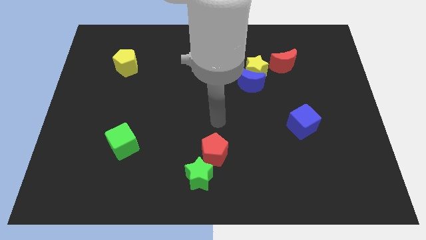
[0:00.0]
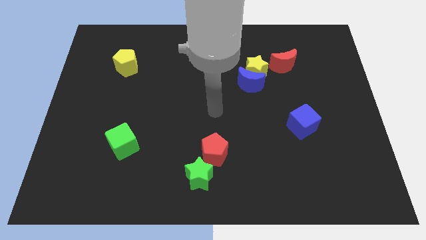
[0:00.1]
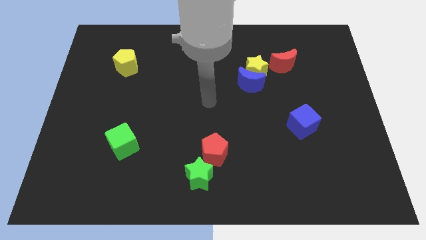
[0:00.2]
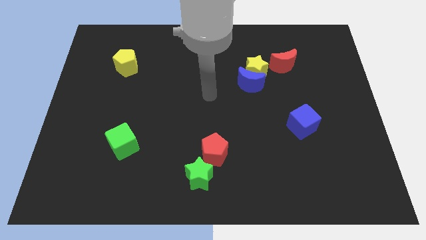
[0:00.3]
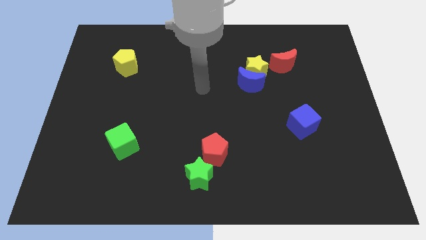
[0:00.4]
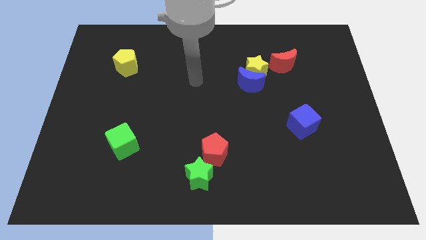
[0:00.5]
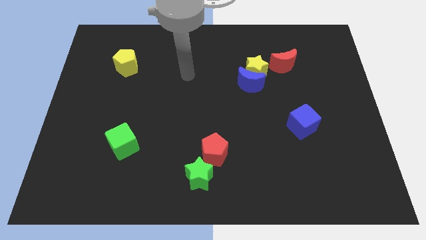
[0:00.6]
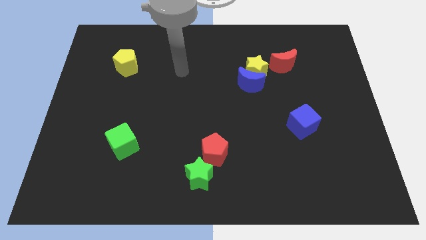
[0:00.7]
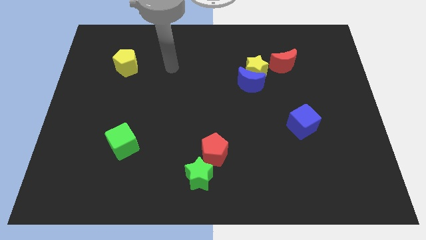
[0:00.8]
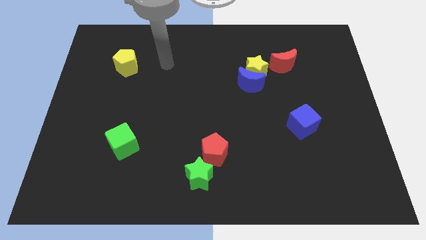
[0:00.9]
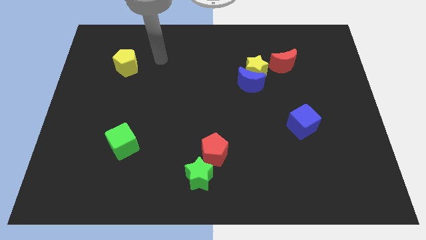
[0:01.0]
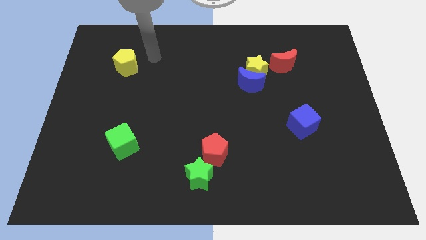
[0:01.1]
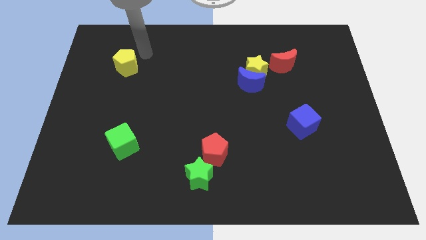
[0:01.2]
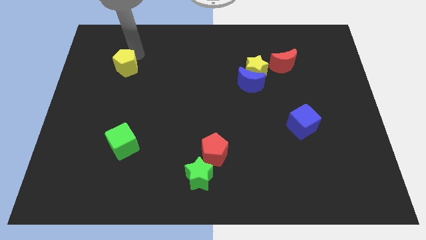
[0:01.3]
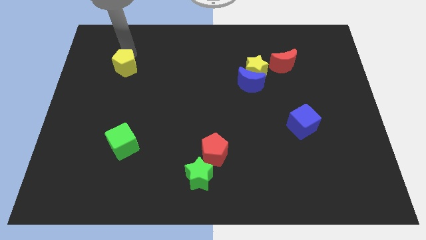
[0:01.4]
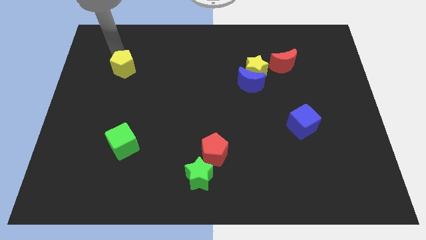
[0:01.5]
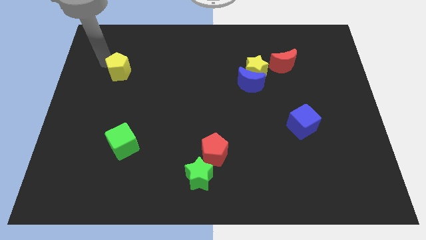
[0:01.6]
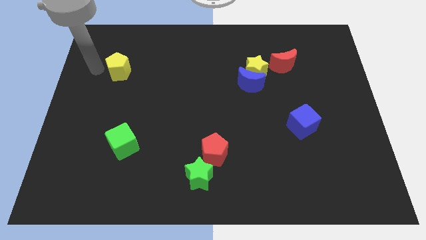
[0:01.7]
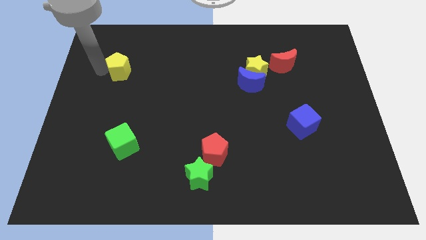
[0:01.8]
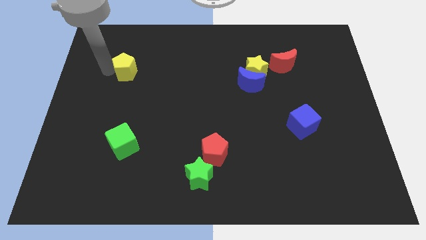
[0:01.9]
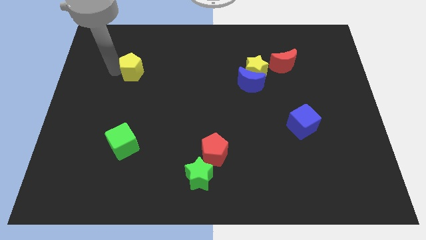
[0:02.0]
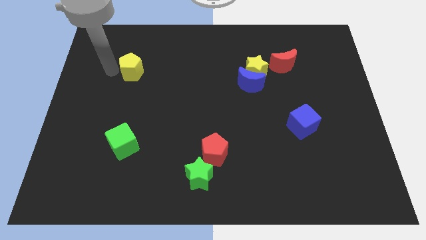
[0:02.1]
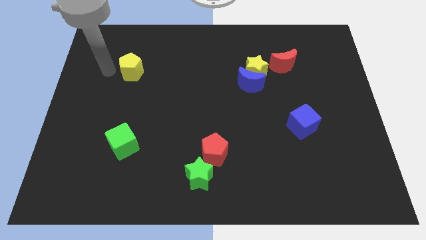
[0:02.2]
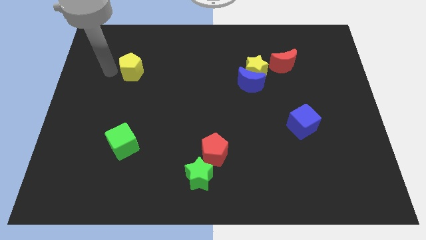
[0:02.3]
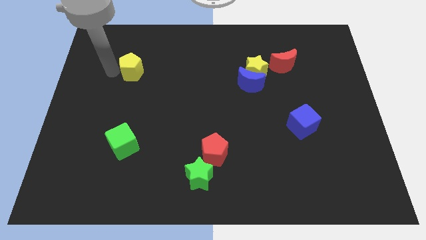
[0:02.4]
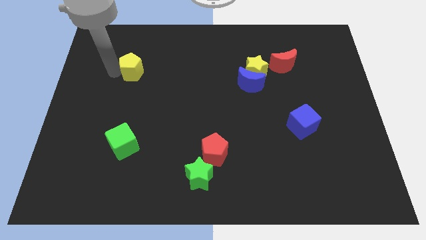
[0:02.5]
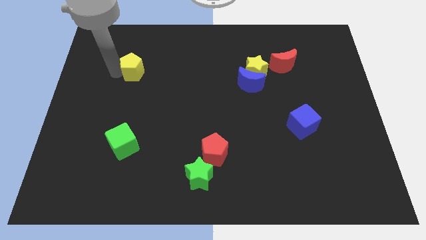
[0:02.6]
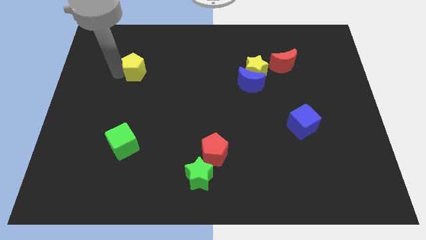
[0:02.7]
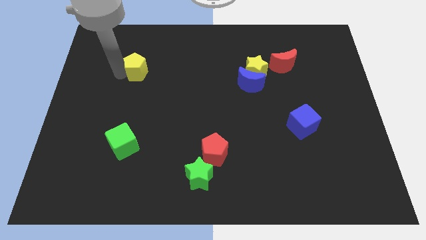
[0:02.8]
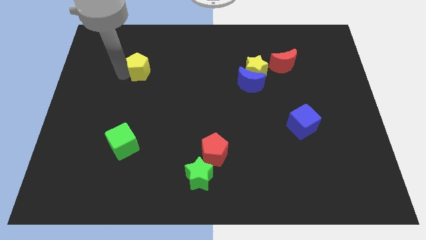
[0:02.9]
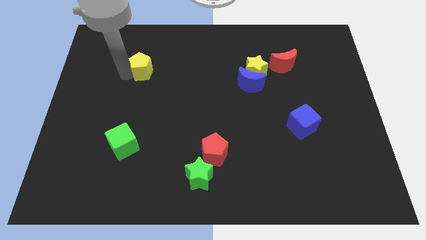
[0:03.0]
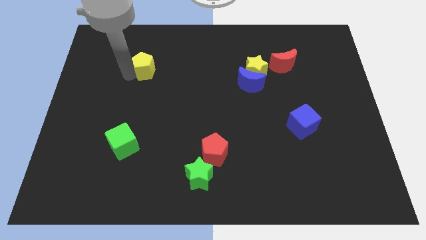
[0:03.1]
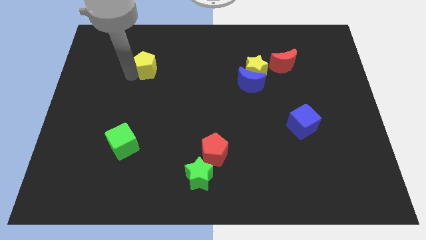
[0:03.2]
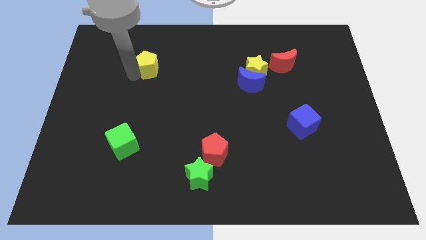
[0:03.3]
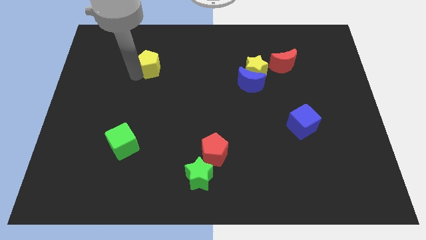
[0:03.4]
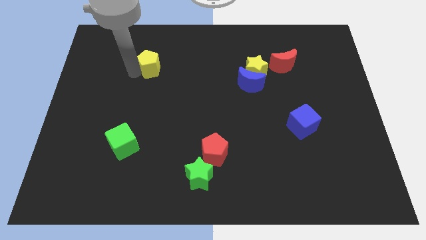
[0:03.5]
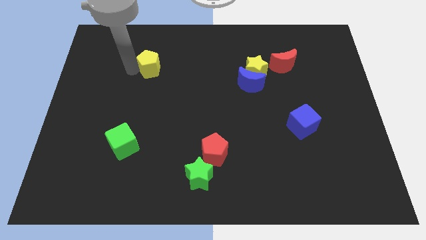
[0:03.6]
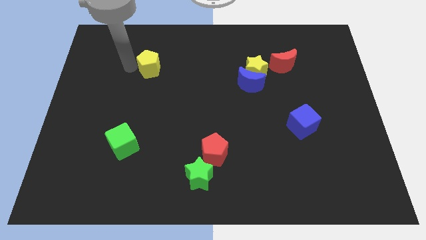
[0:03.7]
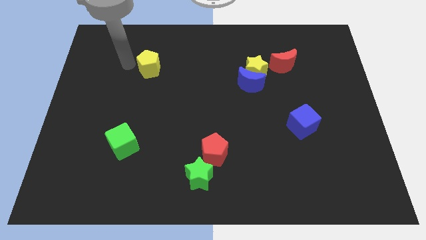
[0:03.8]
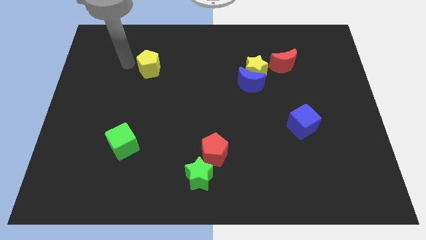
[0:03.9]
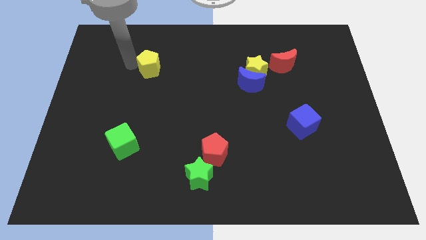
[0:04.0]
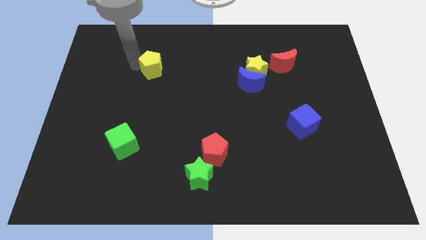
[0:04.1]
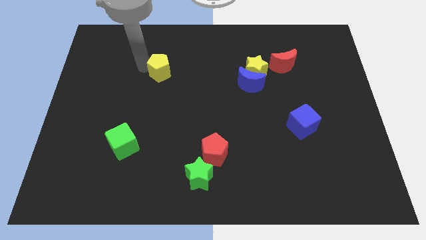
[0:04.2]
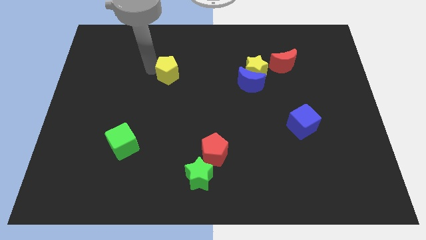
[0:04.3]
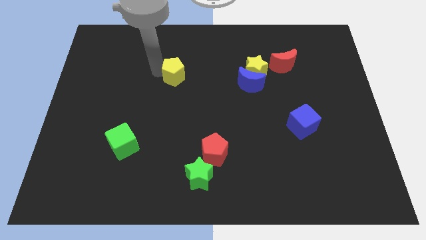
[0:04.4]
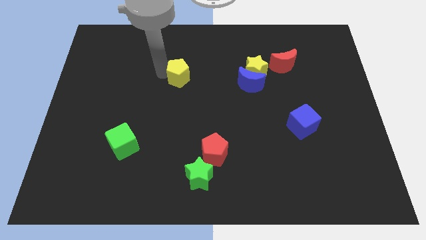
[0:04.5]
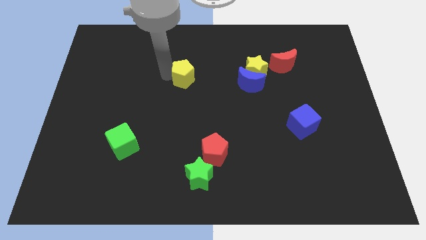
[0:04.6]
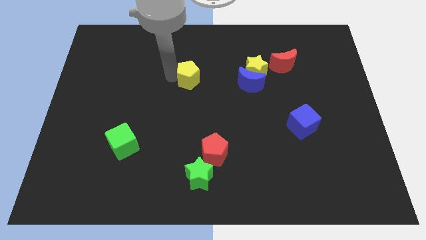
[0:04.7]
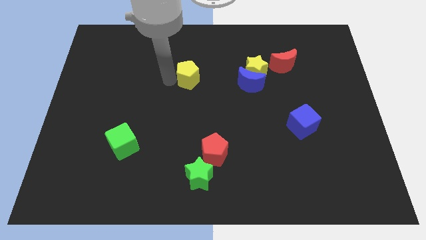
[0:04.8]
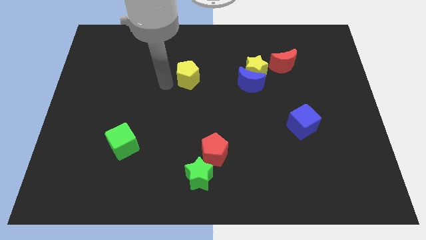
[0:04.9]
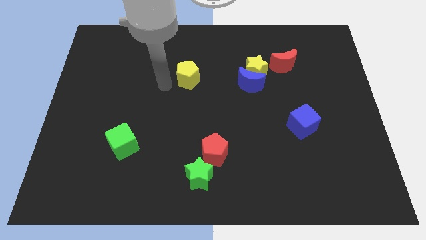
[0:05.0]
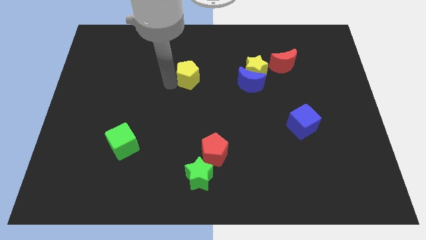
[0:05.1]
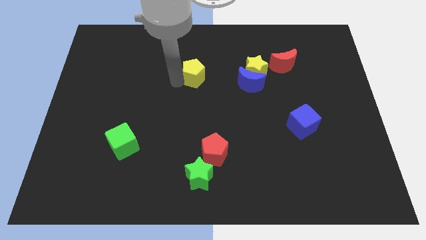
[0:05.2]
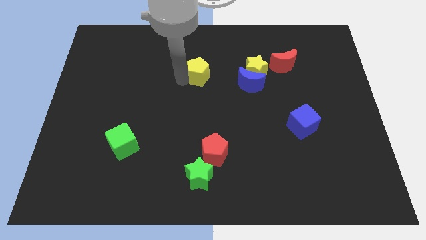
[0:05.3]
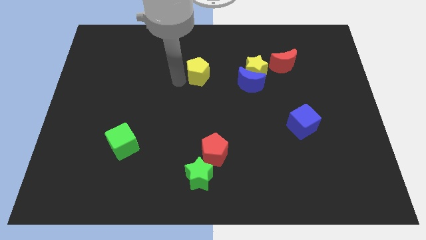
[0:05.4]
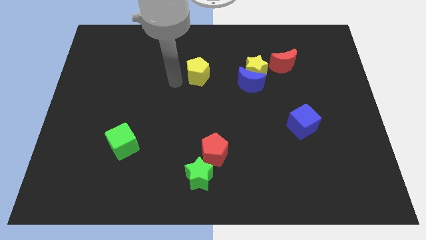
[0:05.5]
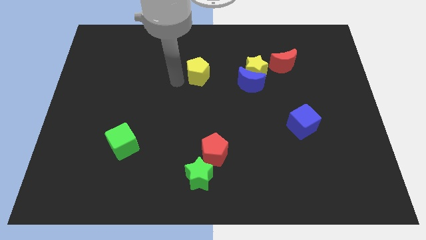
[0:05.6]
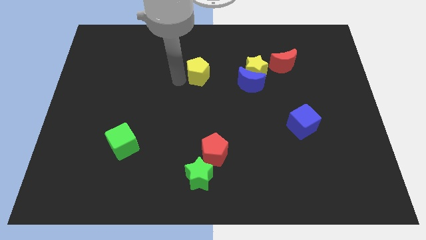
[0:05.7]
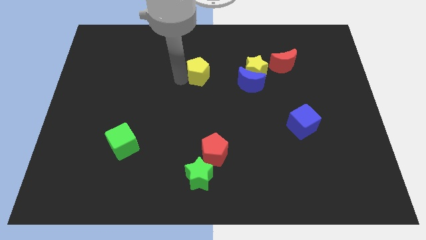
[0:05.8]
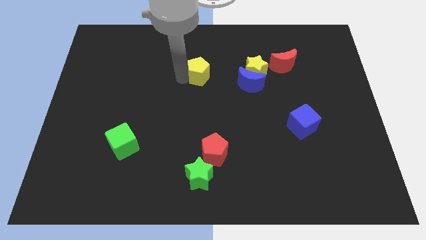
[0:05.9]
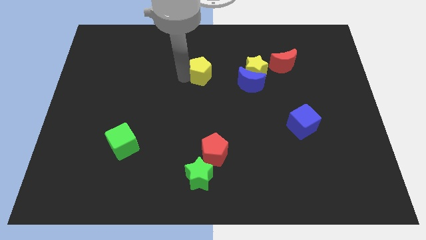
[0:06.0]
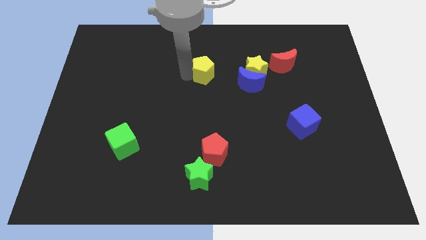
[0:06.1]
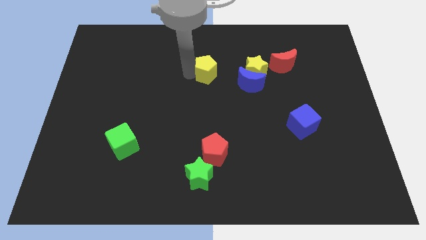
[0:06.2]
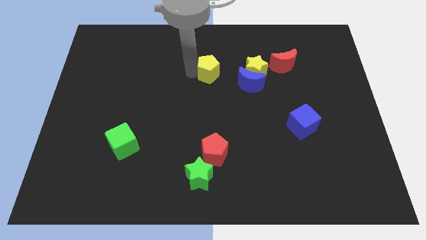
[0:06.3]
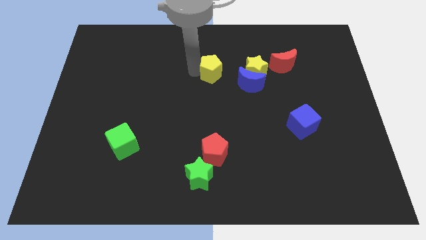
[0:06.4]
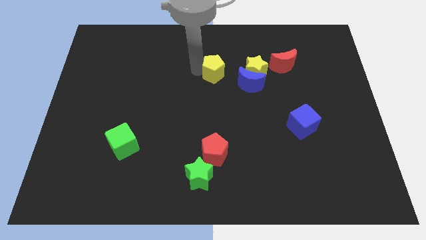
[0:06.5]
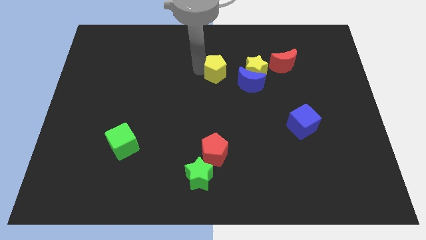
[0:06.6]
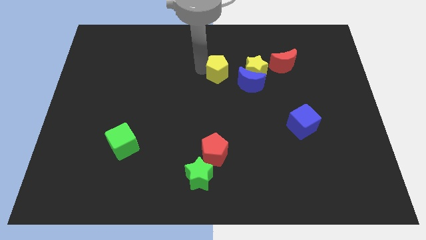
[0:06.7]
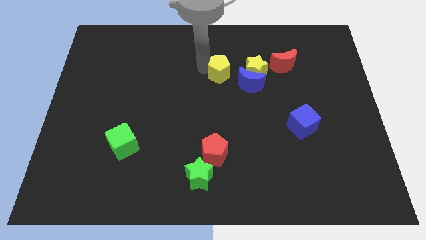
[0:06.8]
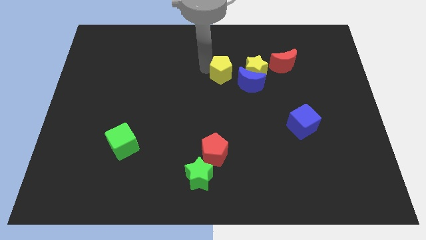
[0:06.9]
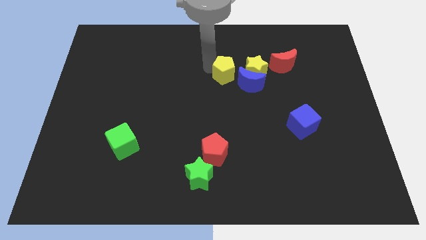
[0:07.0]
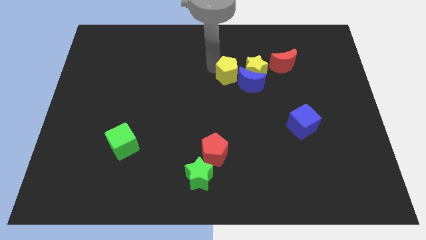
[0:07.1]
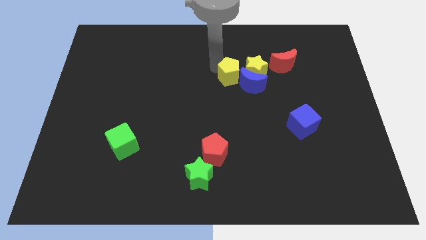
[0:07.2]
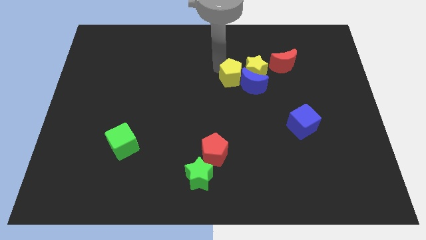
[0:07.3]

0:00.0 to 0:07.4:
push the yellow pentagon next to the yellow star

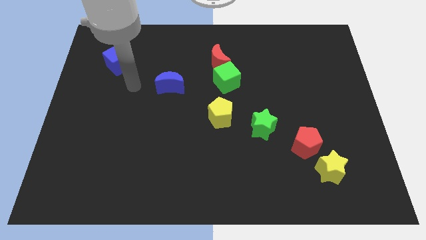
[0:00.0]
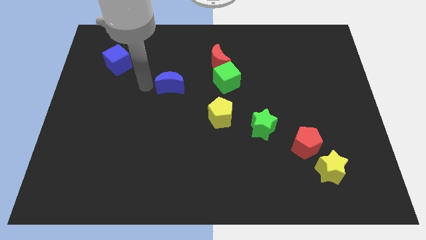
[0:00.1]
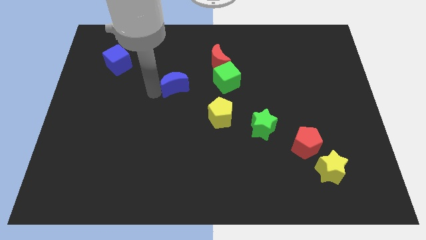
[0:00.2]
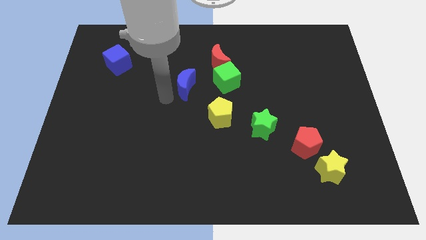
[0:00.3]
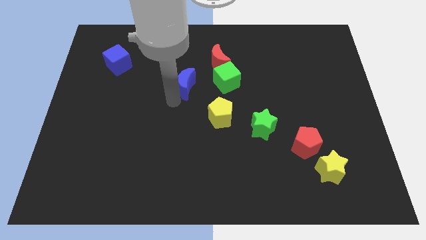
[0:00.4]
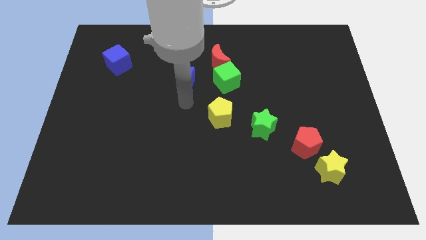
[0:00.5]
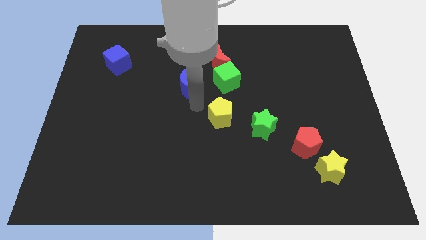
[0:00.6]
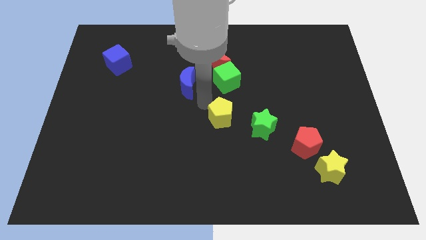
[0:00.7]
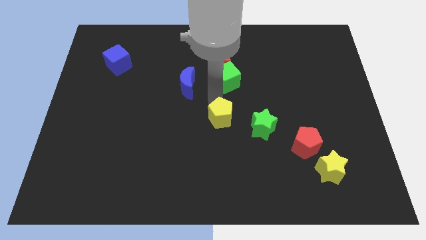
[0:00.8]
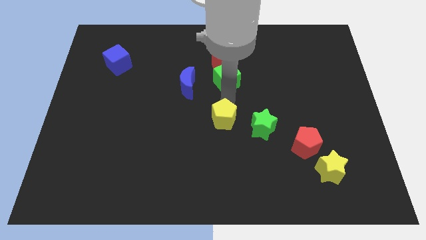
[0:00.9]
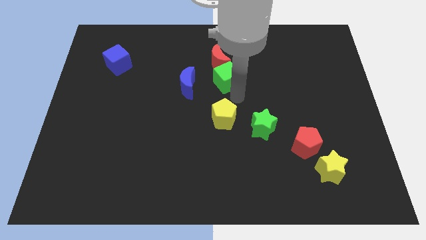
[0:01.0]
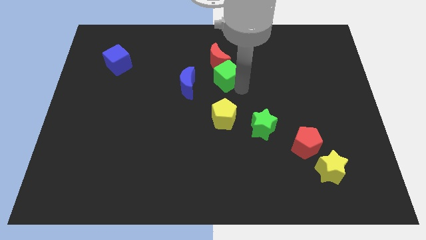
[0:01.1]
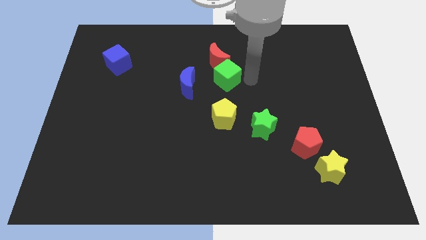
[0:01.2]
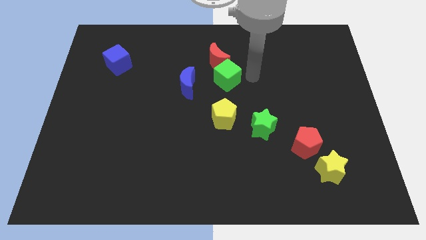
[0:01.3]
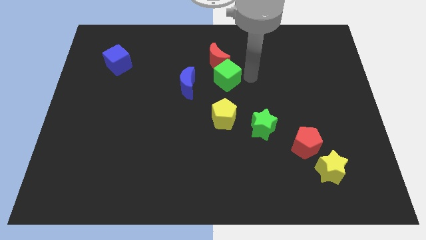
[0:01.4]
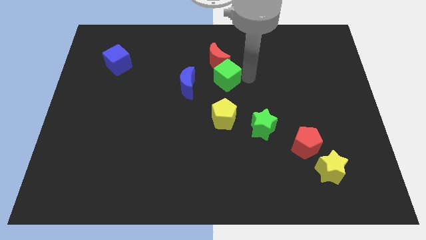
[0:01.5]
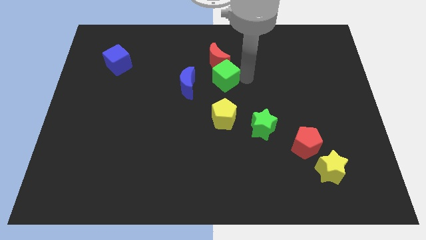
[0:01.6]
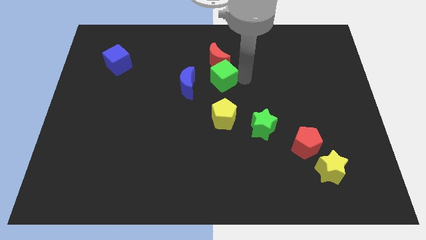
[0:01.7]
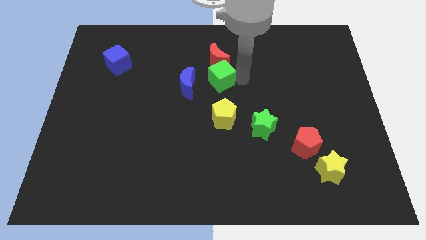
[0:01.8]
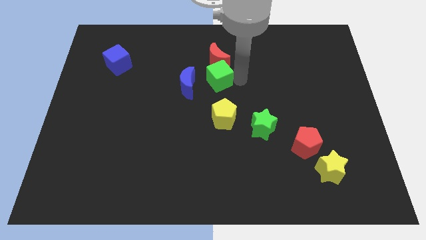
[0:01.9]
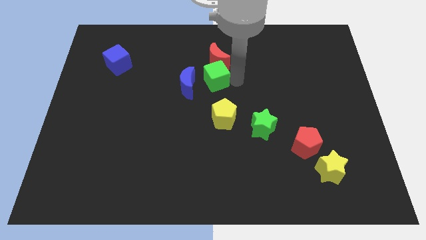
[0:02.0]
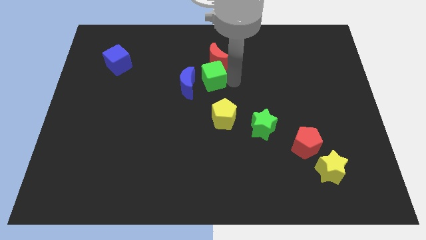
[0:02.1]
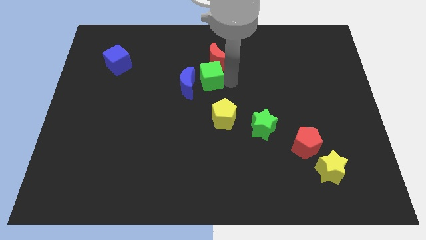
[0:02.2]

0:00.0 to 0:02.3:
slide the green cube close to the blue moon
